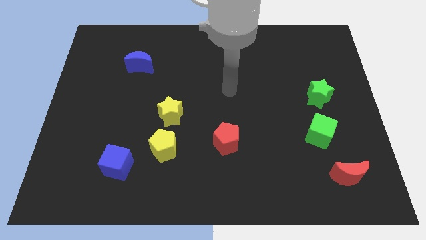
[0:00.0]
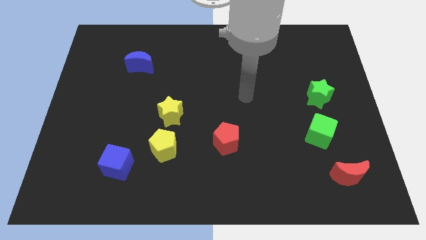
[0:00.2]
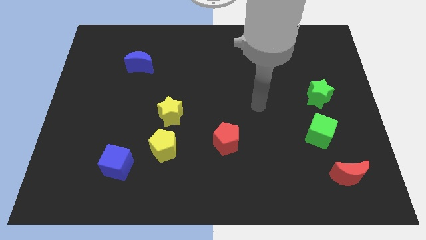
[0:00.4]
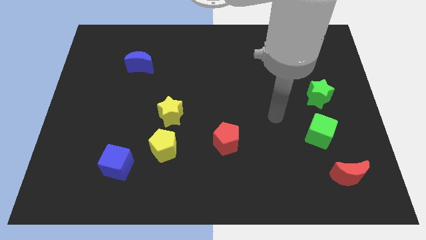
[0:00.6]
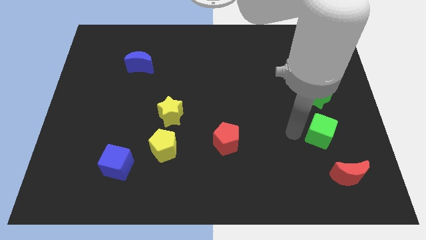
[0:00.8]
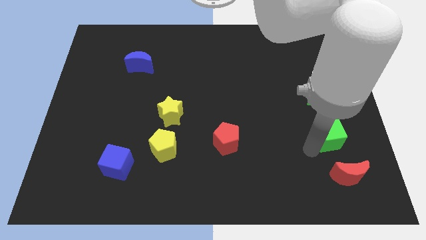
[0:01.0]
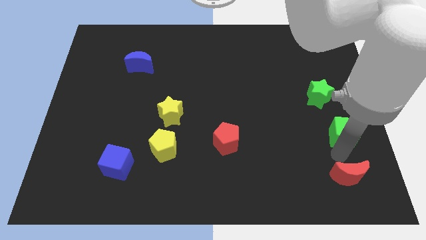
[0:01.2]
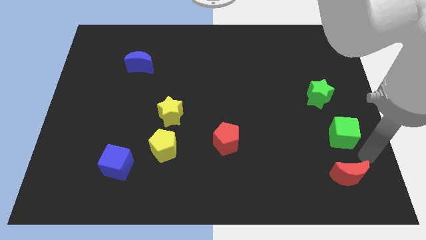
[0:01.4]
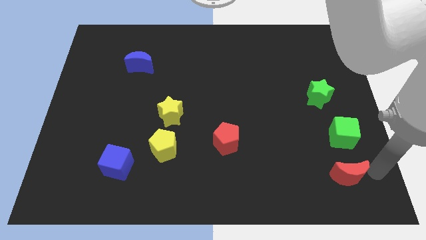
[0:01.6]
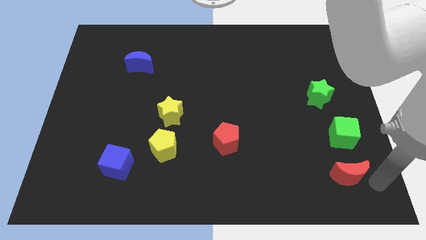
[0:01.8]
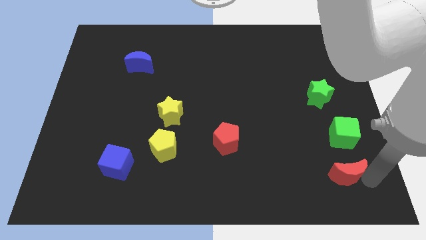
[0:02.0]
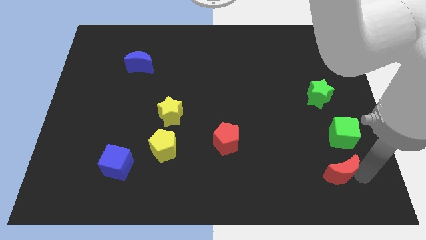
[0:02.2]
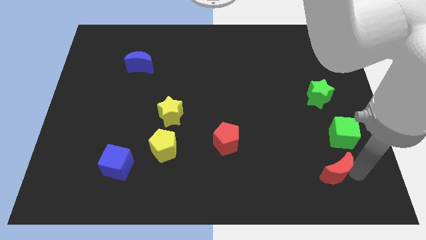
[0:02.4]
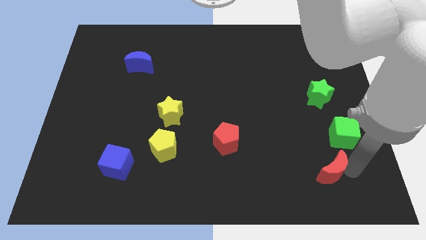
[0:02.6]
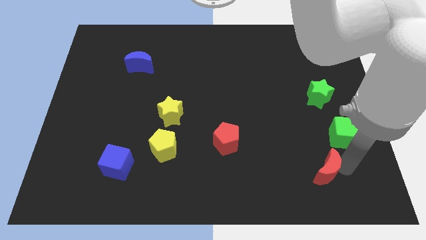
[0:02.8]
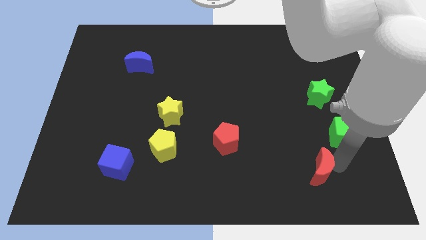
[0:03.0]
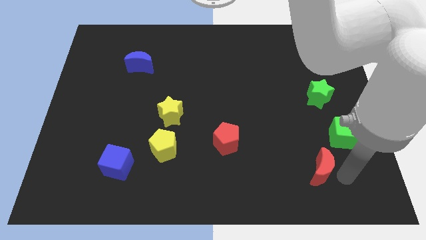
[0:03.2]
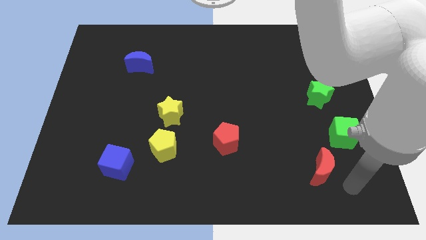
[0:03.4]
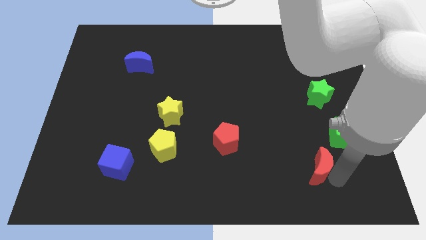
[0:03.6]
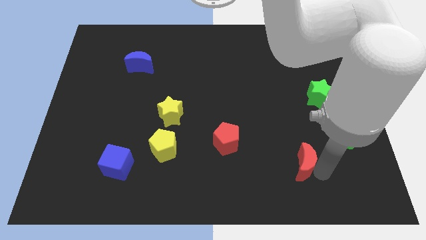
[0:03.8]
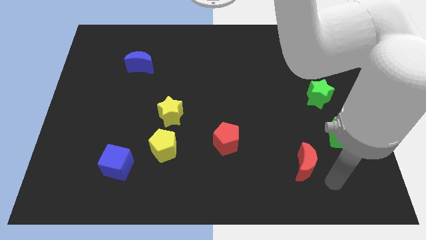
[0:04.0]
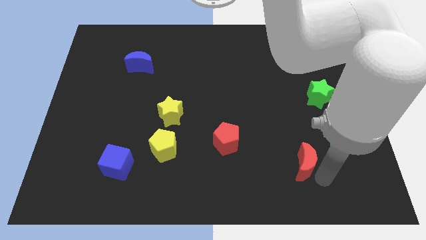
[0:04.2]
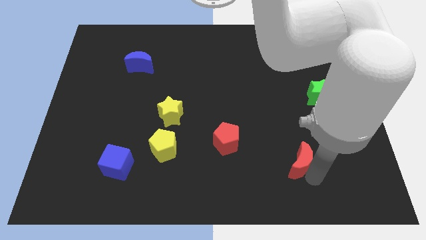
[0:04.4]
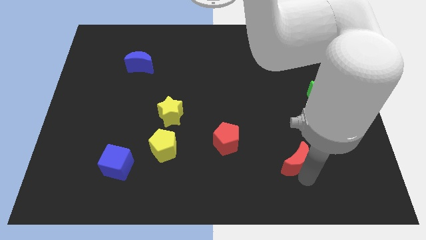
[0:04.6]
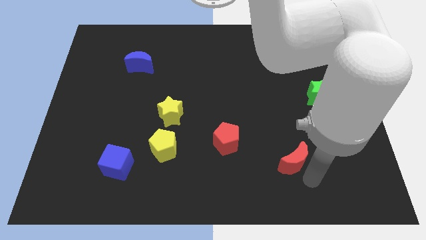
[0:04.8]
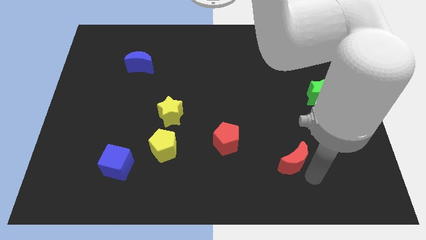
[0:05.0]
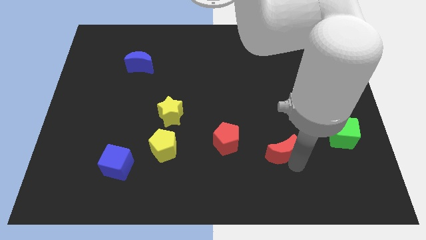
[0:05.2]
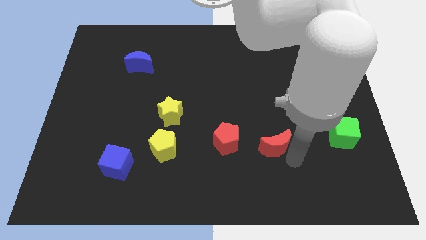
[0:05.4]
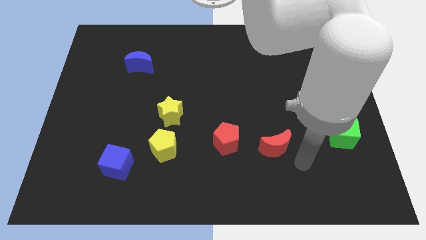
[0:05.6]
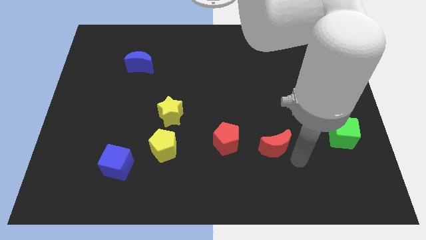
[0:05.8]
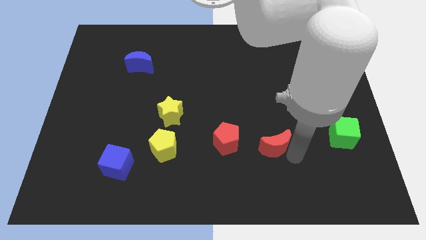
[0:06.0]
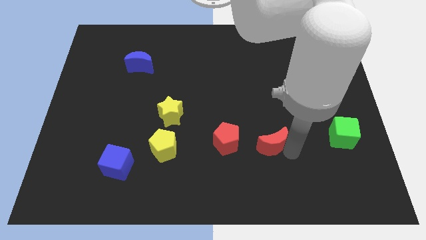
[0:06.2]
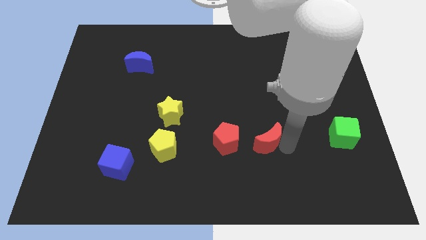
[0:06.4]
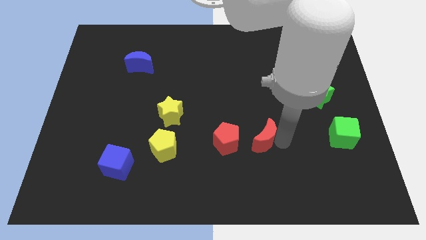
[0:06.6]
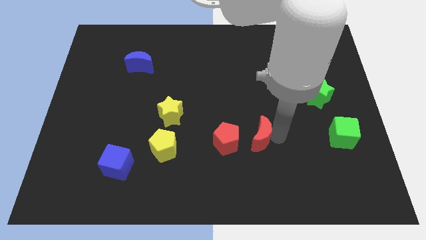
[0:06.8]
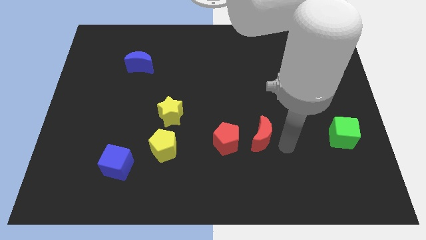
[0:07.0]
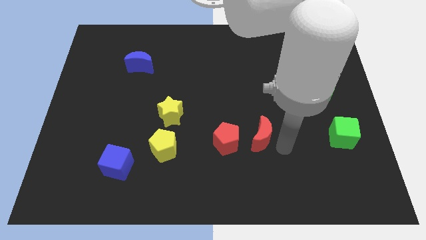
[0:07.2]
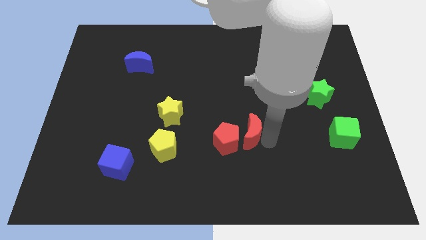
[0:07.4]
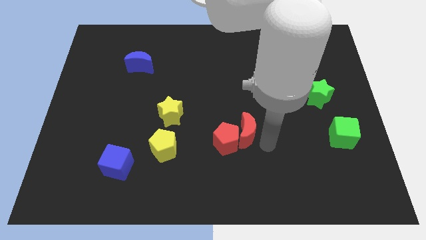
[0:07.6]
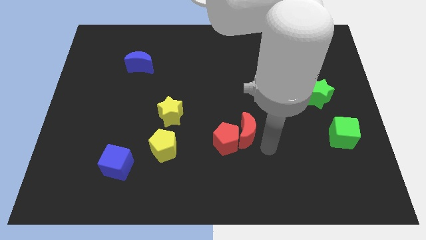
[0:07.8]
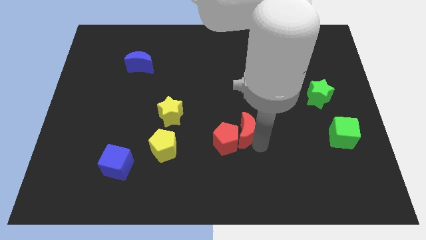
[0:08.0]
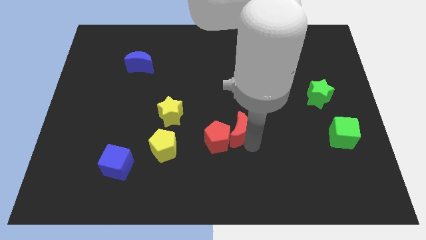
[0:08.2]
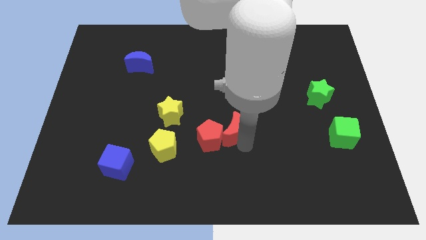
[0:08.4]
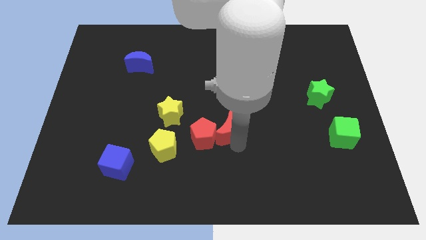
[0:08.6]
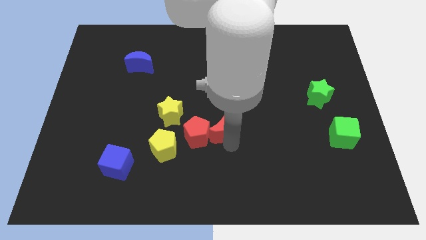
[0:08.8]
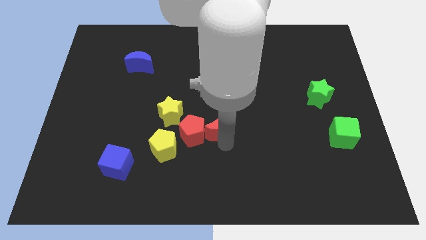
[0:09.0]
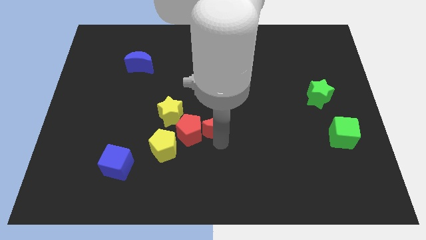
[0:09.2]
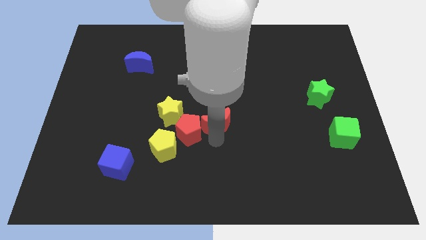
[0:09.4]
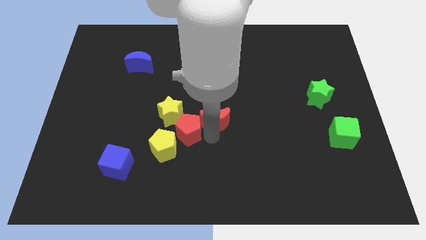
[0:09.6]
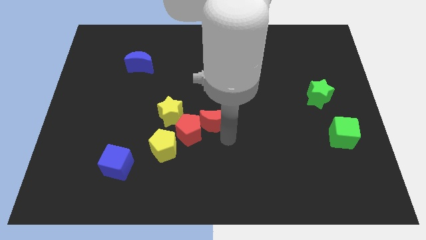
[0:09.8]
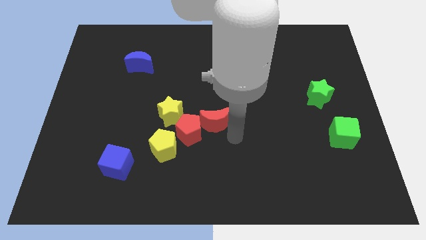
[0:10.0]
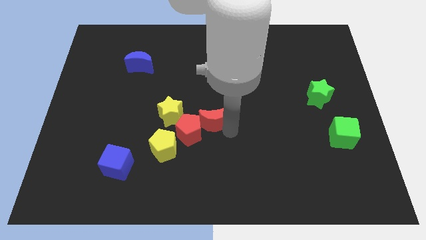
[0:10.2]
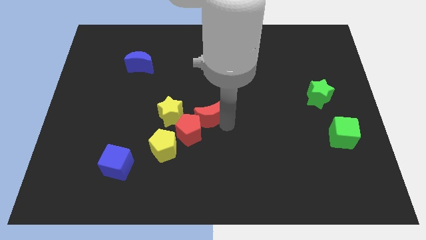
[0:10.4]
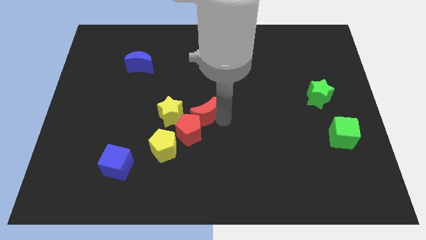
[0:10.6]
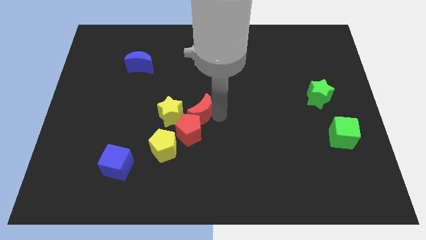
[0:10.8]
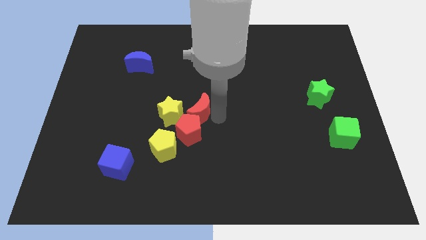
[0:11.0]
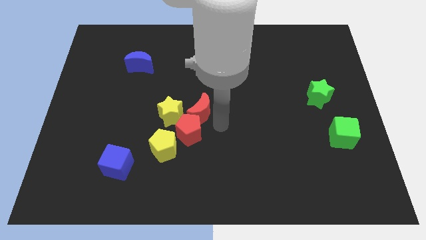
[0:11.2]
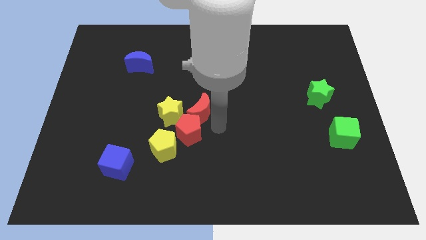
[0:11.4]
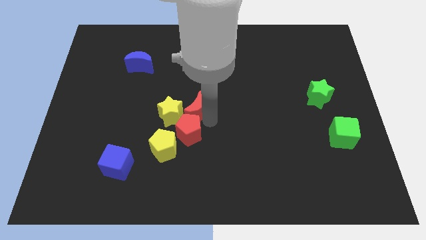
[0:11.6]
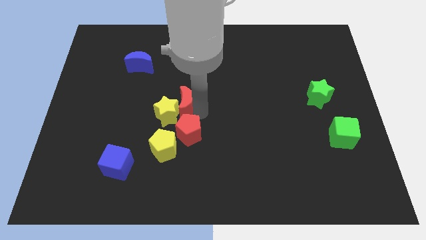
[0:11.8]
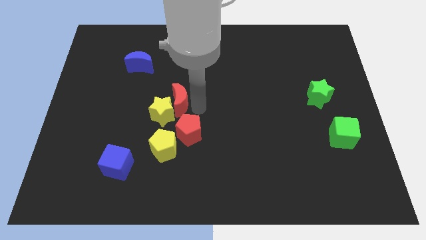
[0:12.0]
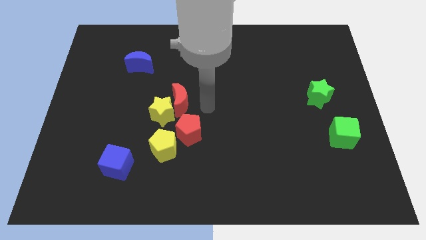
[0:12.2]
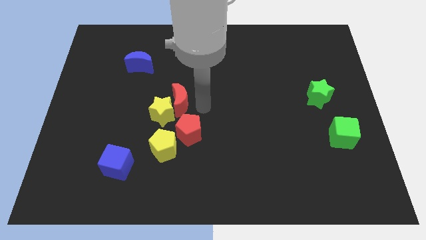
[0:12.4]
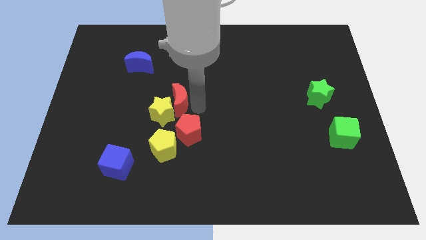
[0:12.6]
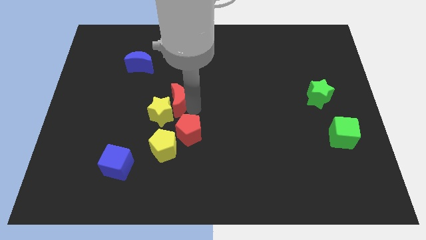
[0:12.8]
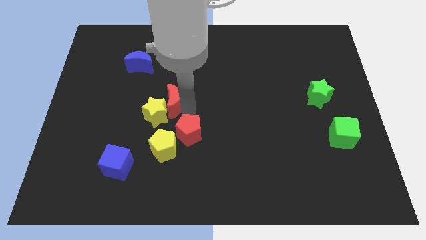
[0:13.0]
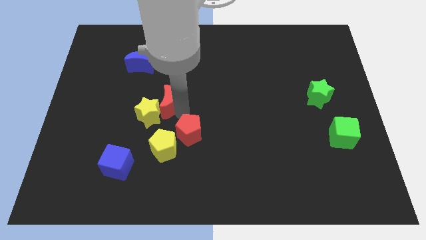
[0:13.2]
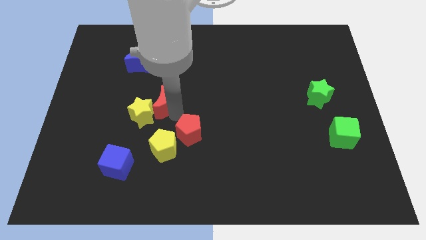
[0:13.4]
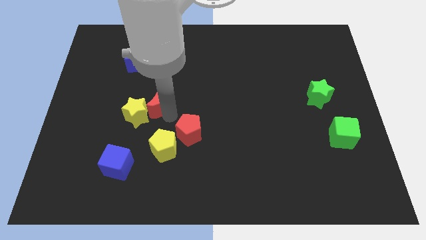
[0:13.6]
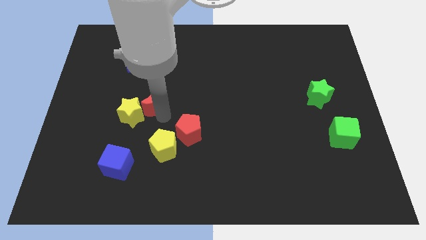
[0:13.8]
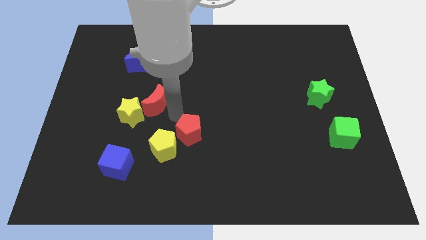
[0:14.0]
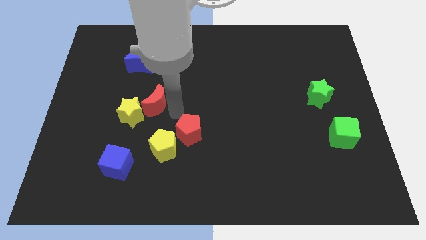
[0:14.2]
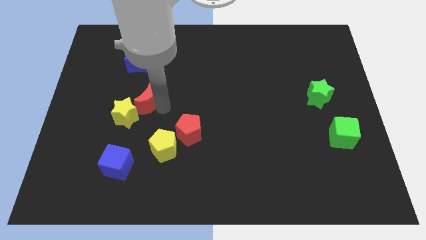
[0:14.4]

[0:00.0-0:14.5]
move the red moon below the blue moon

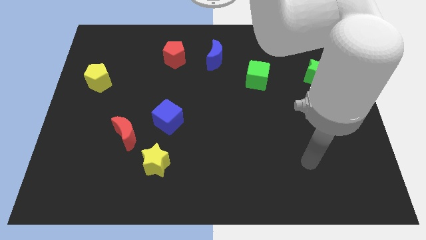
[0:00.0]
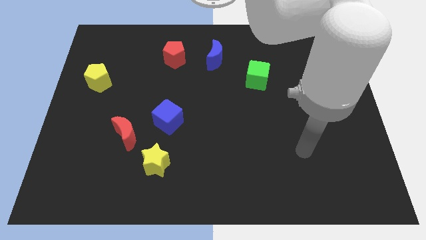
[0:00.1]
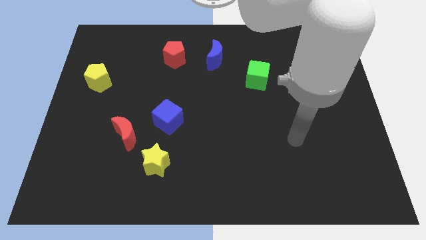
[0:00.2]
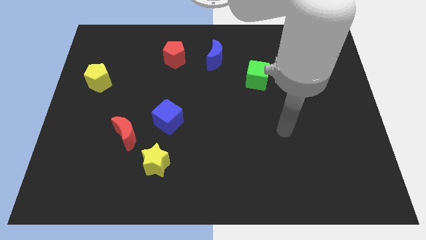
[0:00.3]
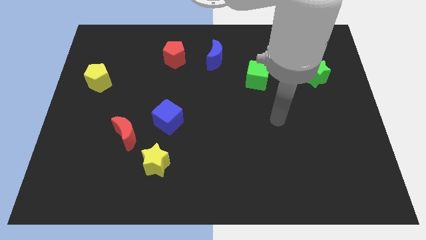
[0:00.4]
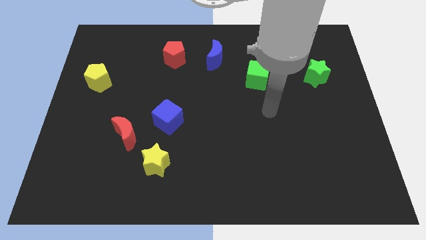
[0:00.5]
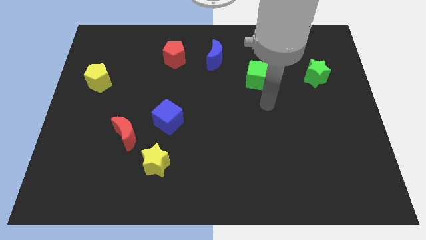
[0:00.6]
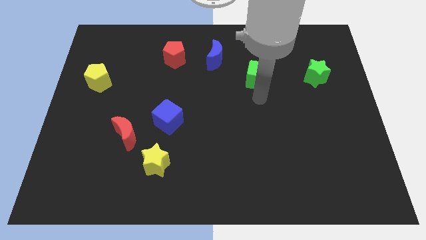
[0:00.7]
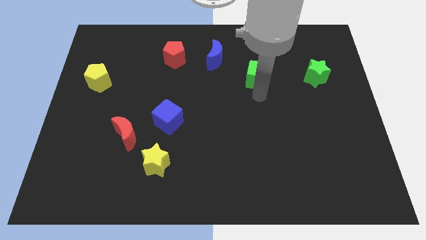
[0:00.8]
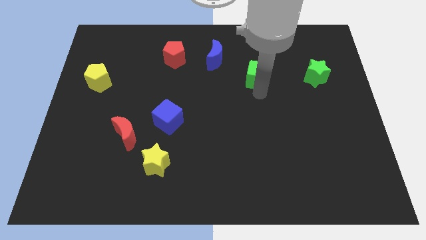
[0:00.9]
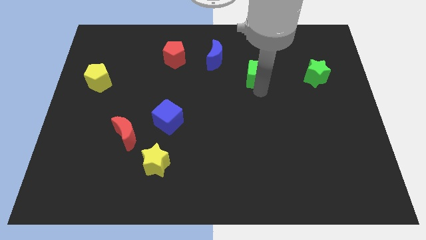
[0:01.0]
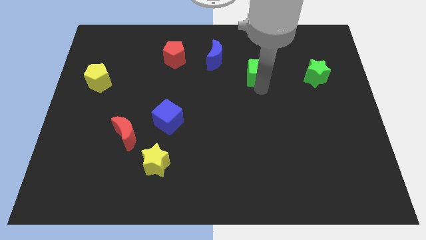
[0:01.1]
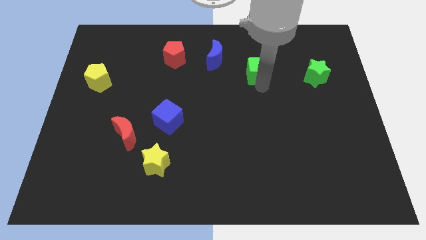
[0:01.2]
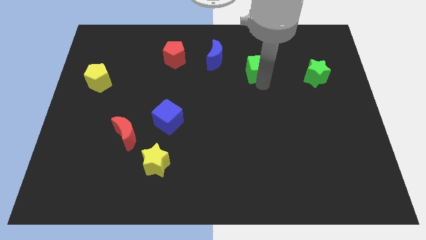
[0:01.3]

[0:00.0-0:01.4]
move the green cube just right of the blue moon
